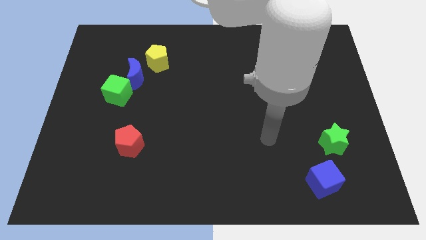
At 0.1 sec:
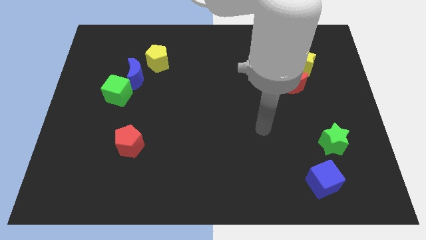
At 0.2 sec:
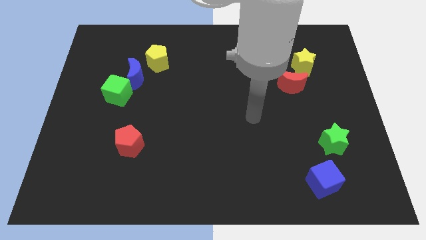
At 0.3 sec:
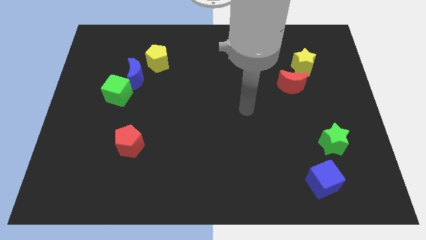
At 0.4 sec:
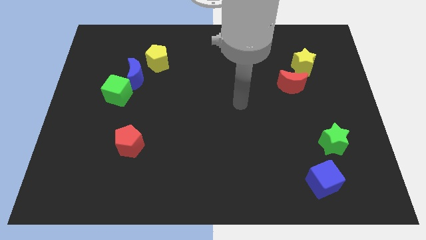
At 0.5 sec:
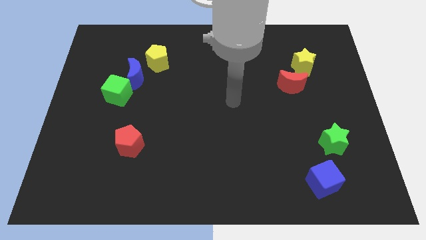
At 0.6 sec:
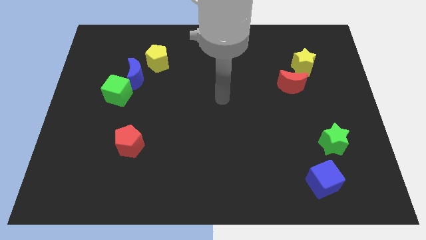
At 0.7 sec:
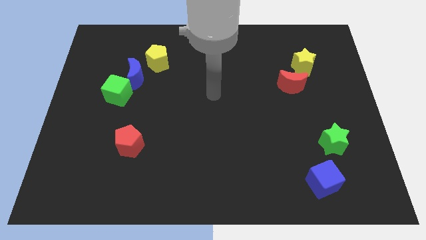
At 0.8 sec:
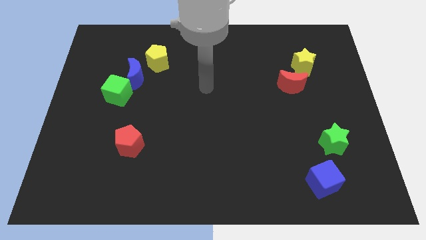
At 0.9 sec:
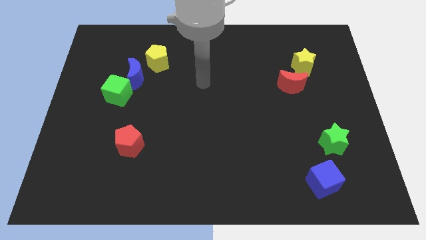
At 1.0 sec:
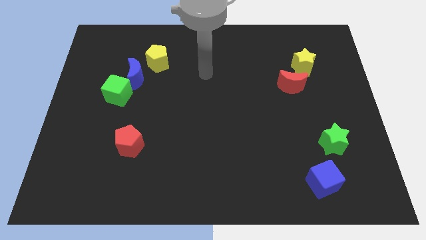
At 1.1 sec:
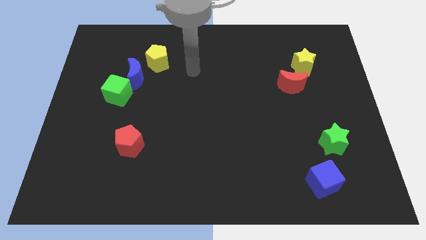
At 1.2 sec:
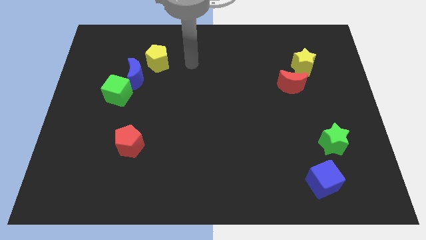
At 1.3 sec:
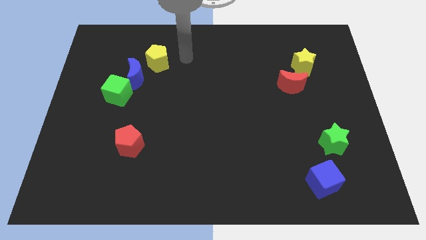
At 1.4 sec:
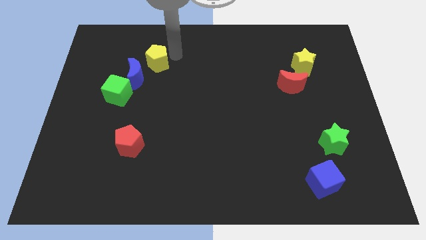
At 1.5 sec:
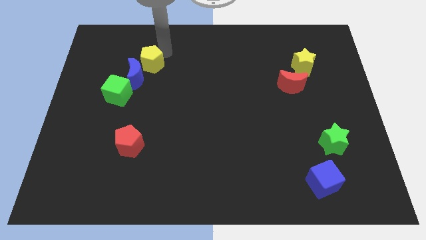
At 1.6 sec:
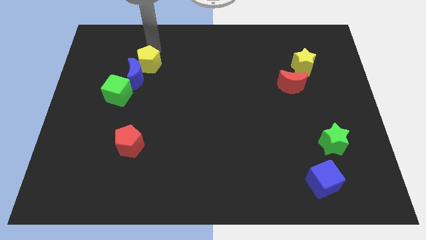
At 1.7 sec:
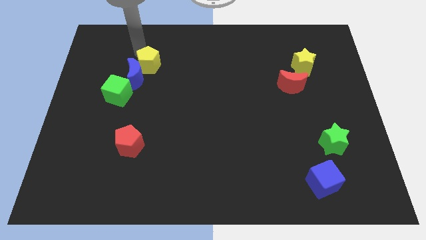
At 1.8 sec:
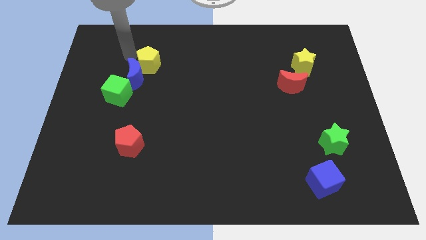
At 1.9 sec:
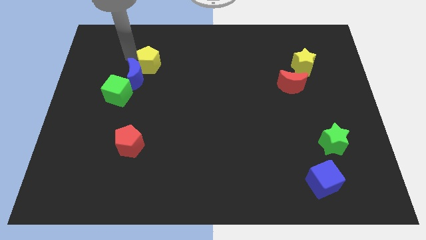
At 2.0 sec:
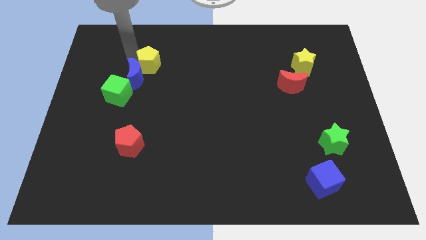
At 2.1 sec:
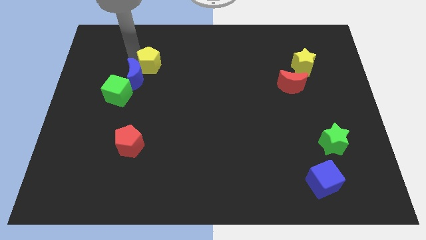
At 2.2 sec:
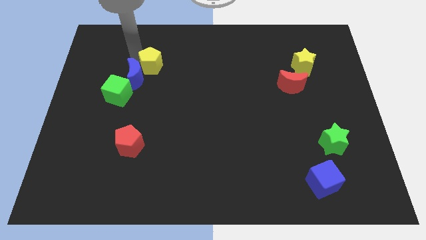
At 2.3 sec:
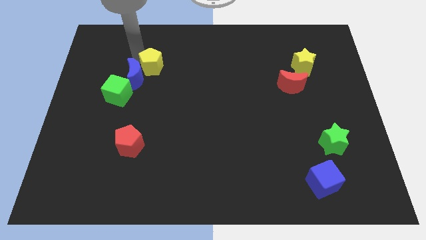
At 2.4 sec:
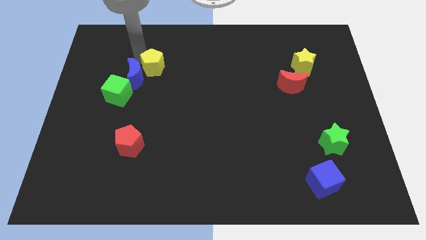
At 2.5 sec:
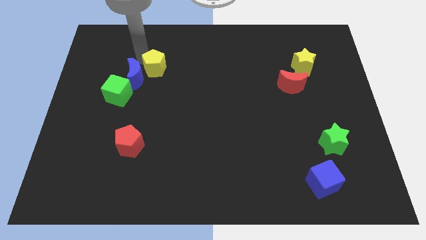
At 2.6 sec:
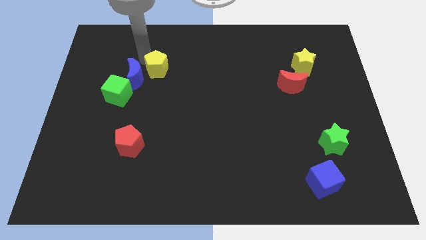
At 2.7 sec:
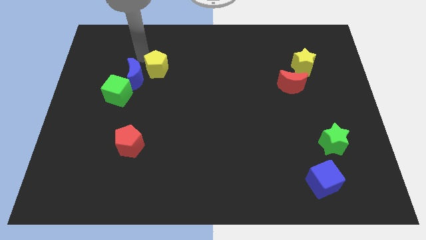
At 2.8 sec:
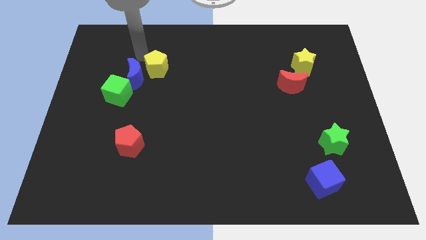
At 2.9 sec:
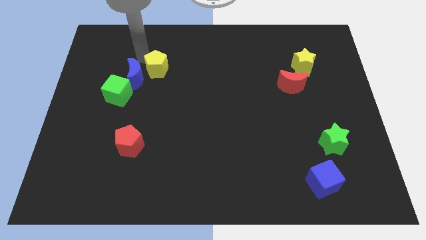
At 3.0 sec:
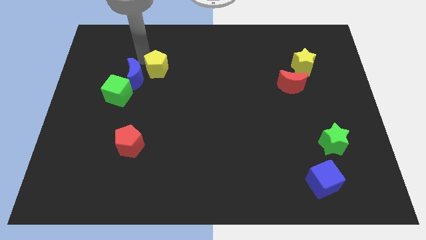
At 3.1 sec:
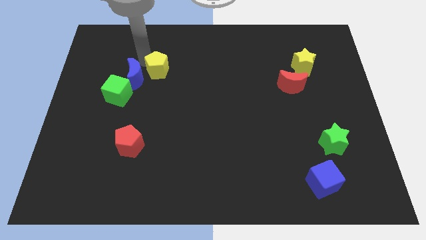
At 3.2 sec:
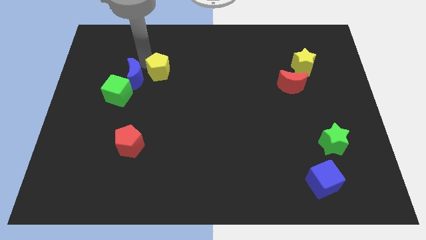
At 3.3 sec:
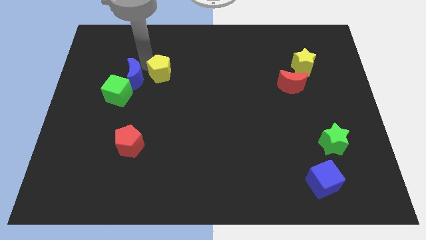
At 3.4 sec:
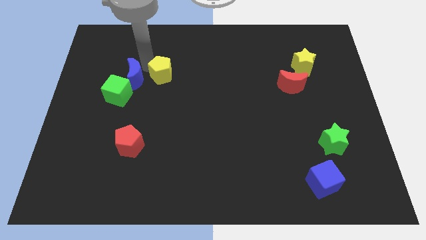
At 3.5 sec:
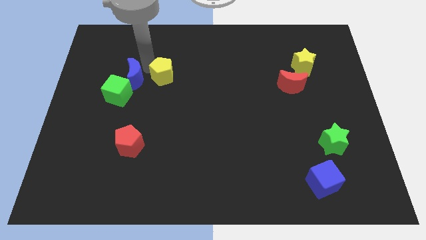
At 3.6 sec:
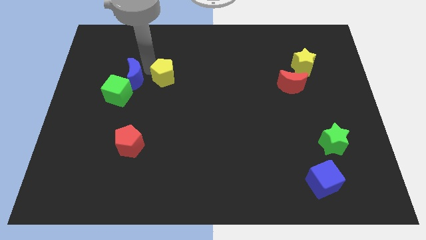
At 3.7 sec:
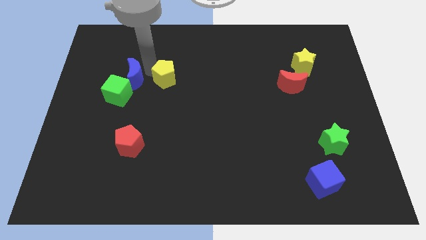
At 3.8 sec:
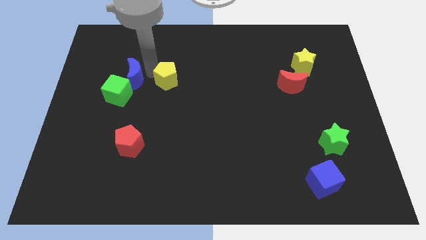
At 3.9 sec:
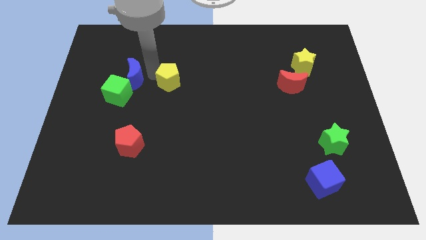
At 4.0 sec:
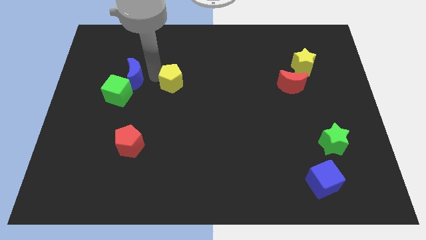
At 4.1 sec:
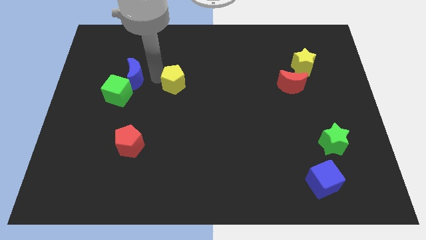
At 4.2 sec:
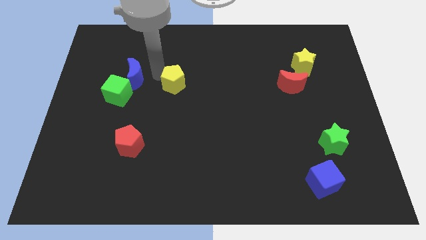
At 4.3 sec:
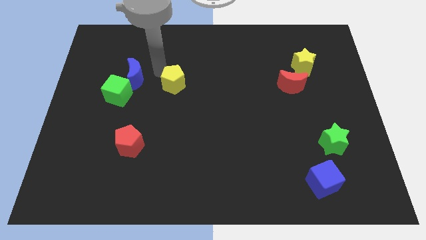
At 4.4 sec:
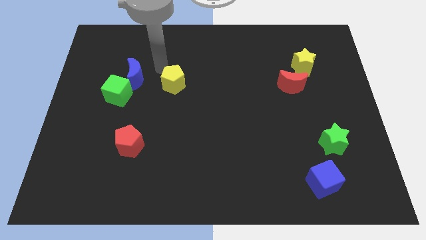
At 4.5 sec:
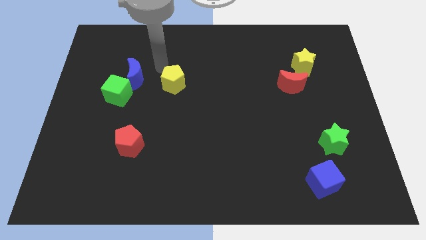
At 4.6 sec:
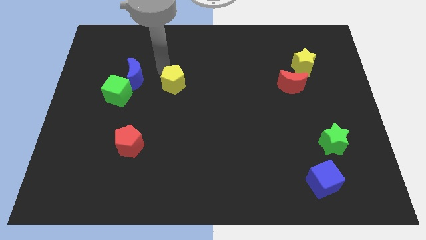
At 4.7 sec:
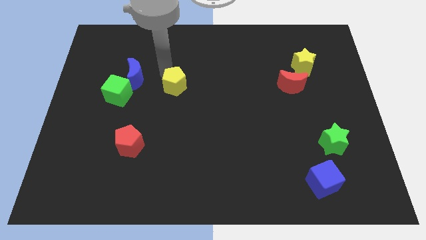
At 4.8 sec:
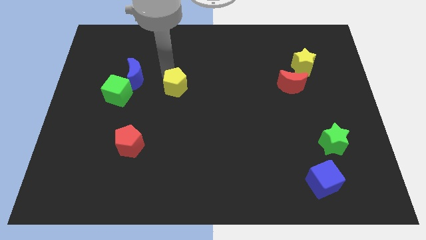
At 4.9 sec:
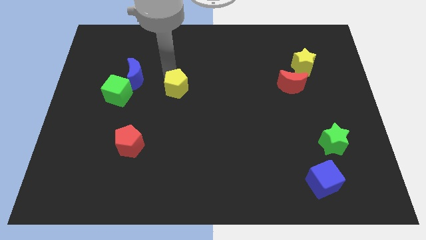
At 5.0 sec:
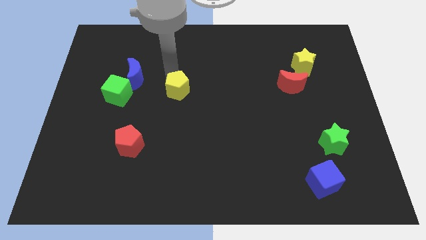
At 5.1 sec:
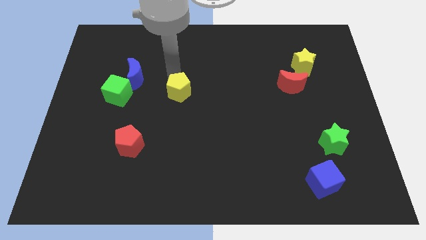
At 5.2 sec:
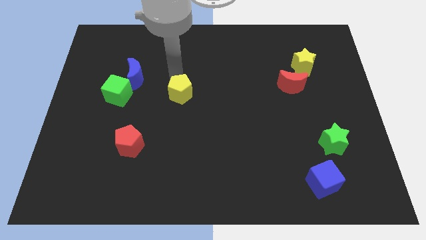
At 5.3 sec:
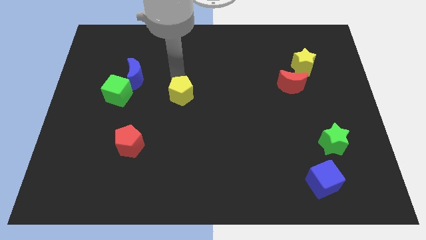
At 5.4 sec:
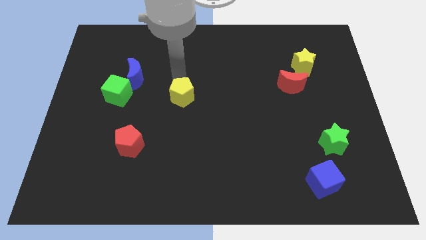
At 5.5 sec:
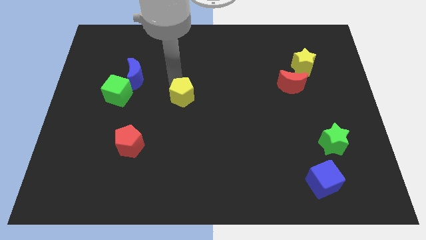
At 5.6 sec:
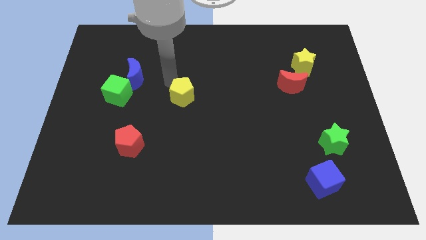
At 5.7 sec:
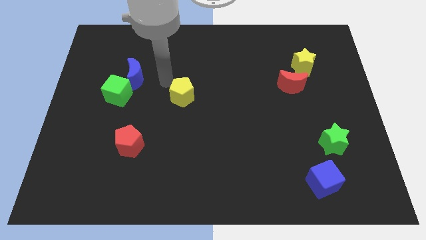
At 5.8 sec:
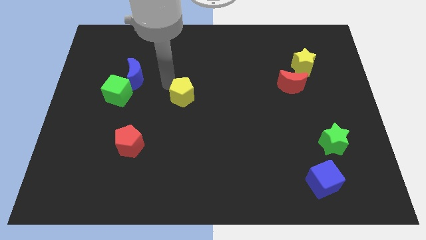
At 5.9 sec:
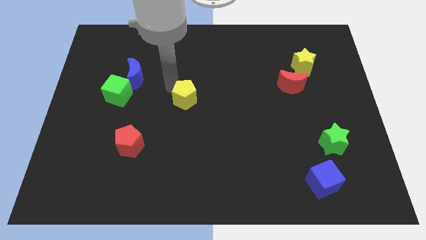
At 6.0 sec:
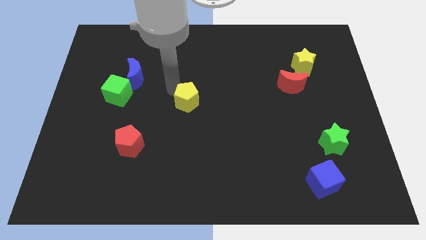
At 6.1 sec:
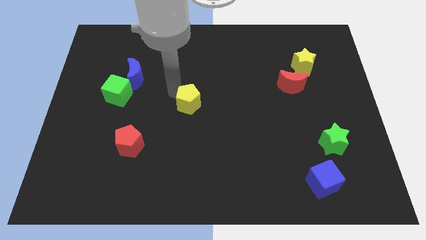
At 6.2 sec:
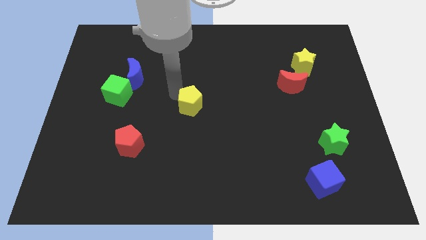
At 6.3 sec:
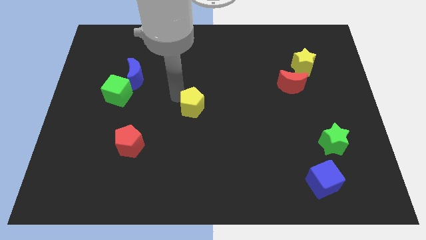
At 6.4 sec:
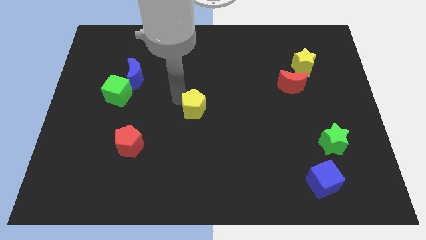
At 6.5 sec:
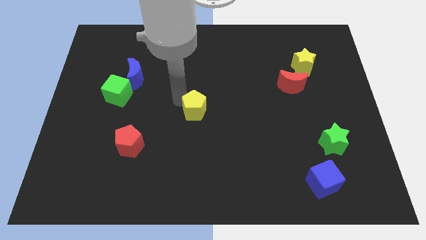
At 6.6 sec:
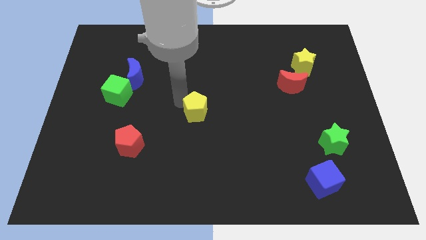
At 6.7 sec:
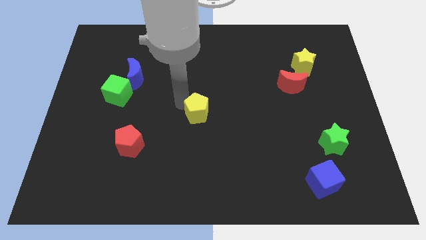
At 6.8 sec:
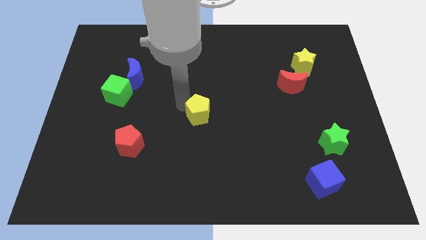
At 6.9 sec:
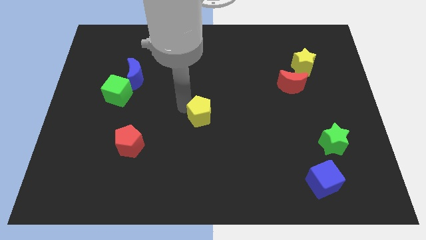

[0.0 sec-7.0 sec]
move the yellow pentagon downwards and then to the right

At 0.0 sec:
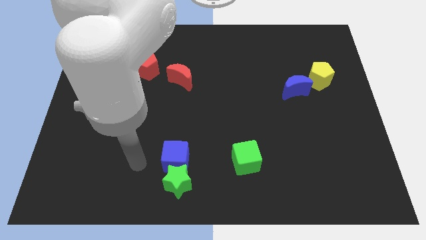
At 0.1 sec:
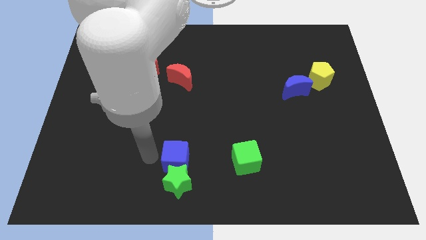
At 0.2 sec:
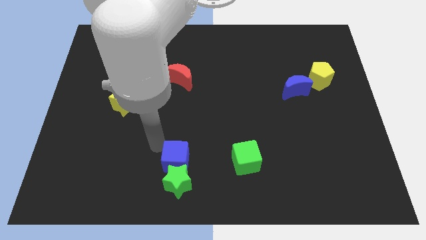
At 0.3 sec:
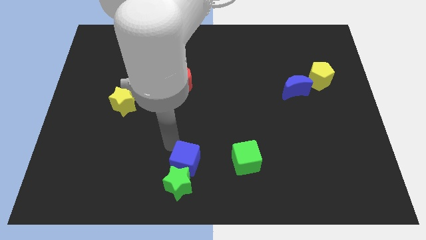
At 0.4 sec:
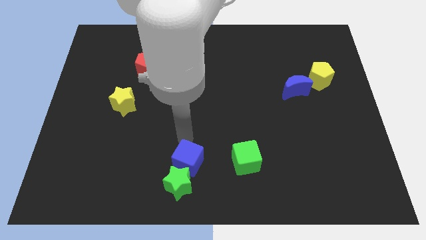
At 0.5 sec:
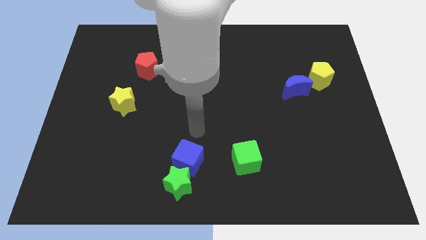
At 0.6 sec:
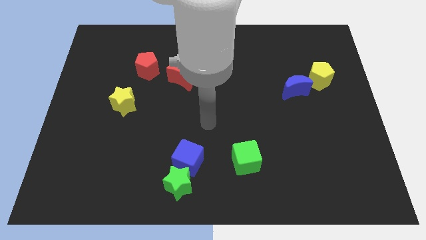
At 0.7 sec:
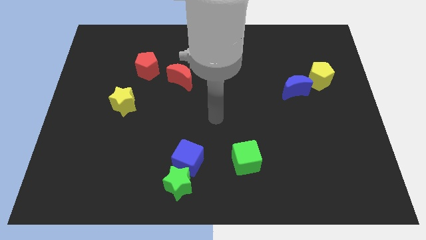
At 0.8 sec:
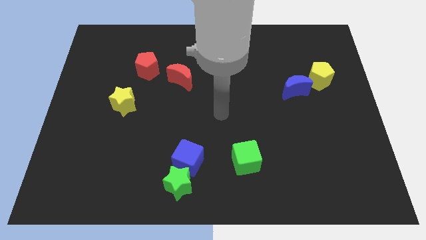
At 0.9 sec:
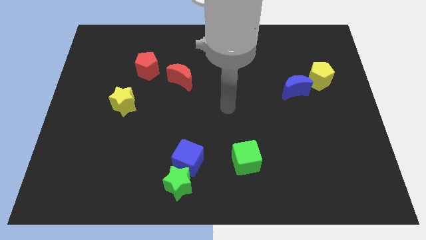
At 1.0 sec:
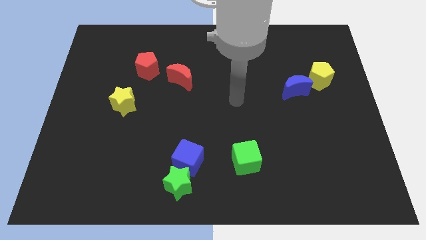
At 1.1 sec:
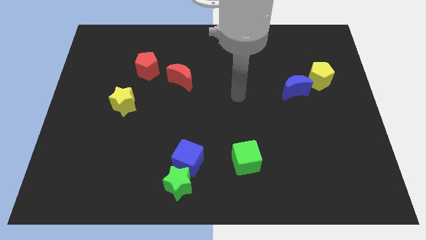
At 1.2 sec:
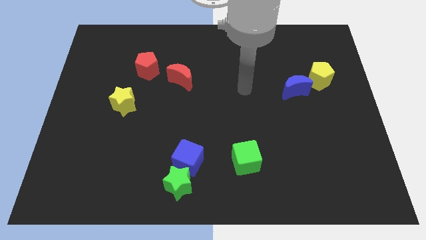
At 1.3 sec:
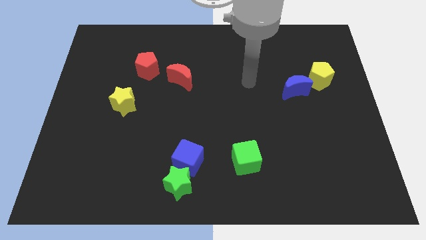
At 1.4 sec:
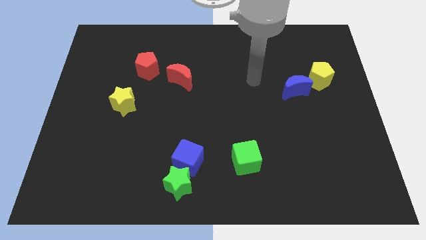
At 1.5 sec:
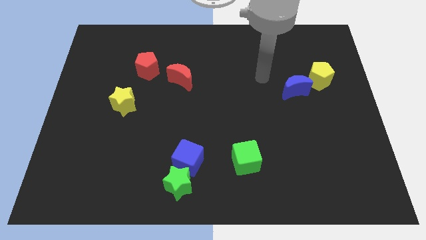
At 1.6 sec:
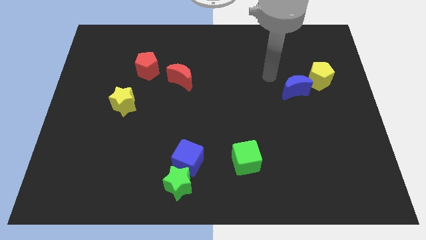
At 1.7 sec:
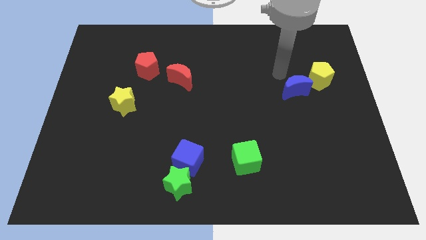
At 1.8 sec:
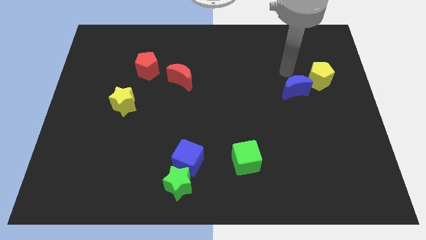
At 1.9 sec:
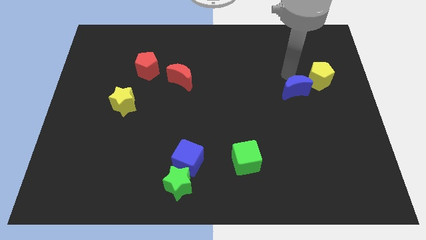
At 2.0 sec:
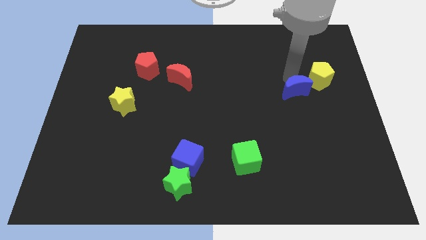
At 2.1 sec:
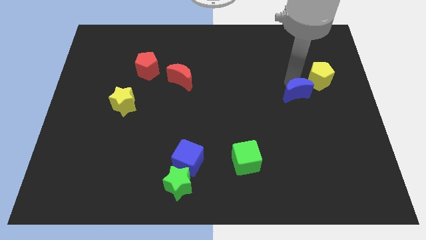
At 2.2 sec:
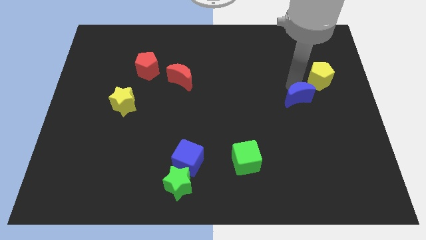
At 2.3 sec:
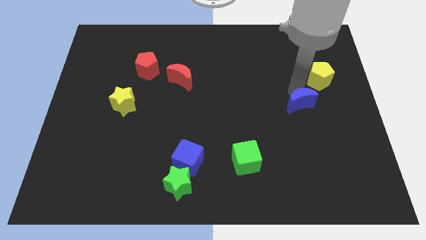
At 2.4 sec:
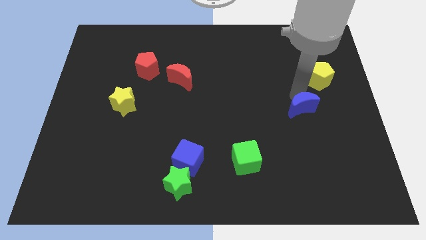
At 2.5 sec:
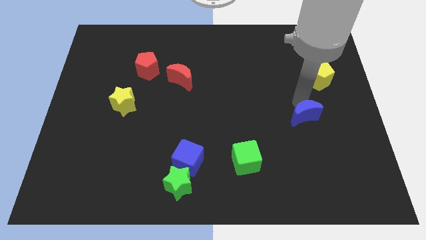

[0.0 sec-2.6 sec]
slide the blue moon a little down
